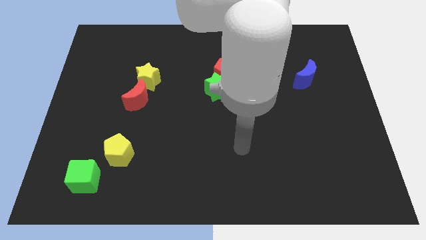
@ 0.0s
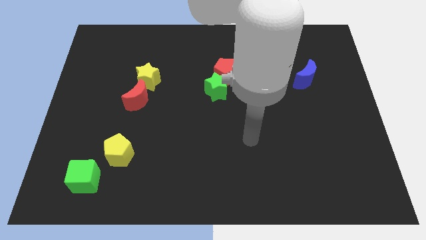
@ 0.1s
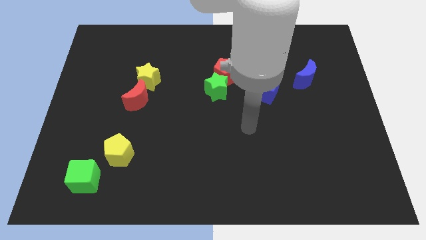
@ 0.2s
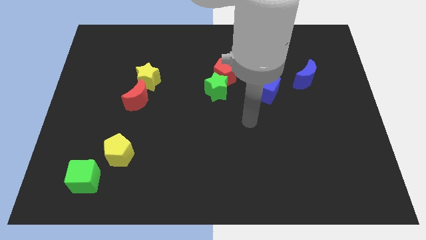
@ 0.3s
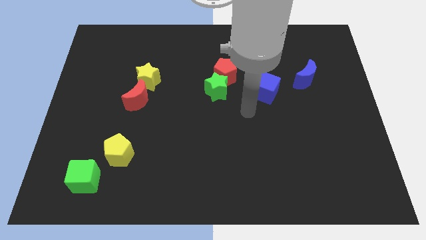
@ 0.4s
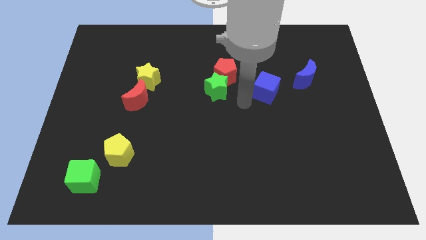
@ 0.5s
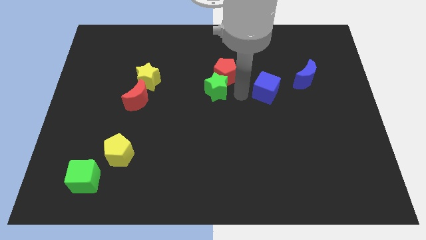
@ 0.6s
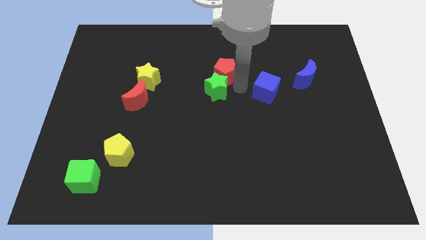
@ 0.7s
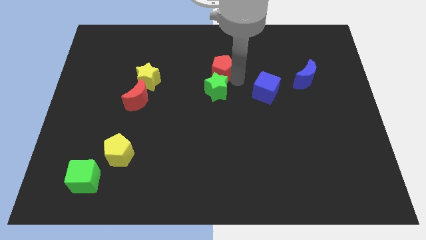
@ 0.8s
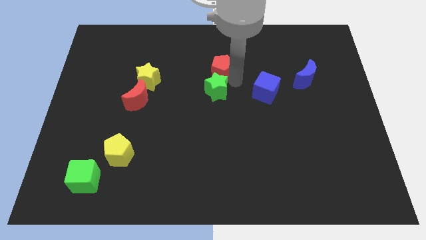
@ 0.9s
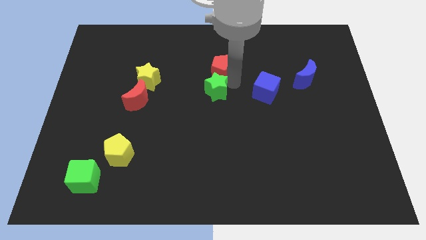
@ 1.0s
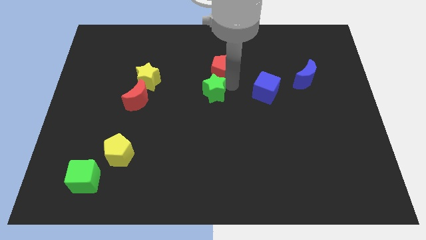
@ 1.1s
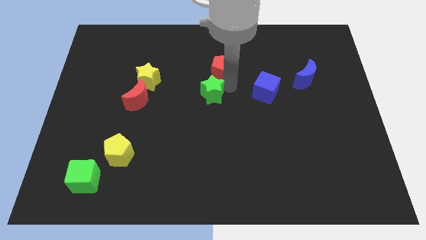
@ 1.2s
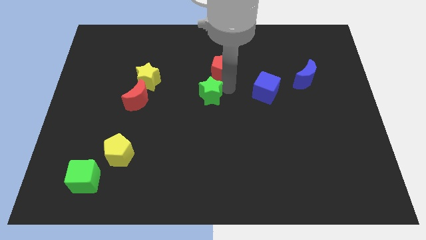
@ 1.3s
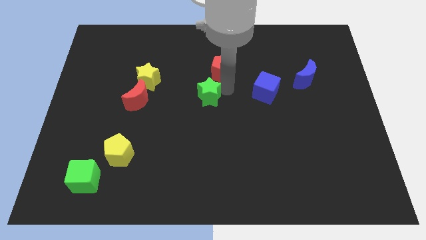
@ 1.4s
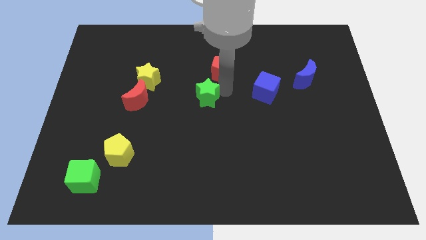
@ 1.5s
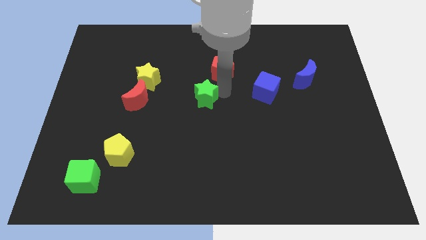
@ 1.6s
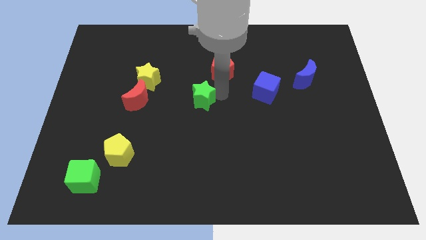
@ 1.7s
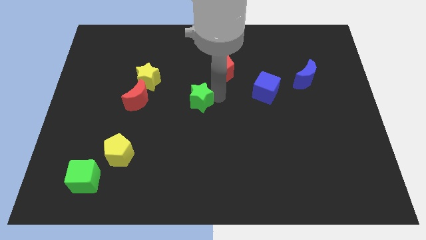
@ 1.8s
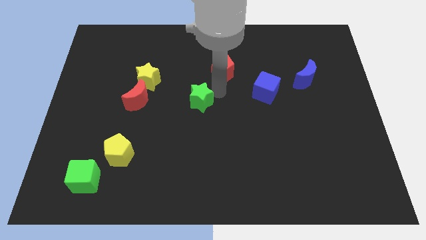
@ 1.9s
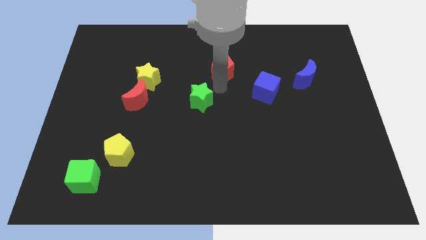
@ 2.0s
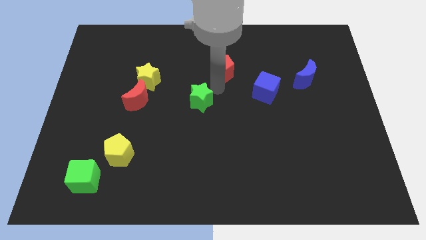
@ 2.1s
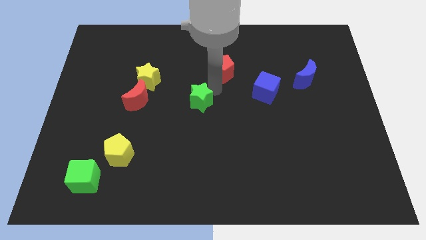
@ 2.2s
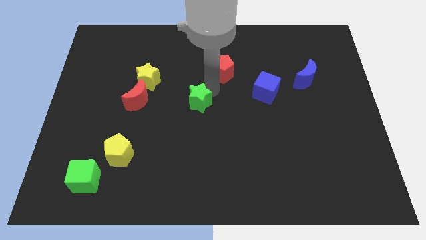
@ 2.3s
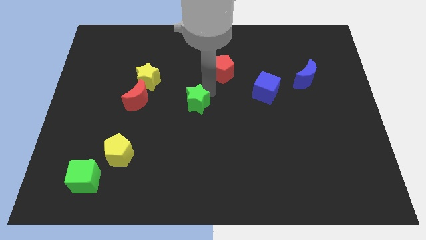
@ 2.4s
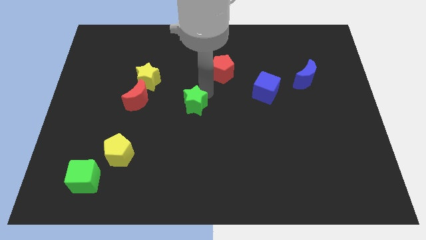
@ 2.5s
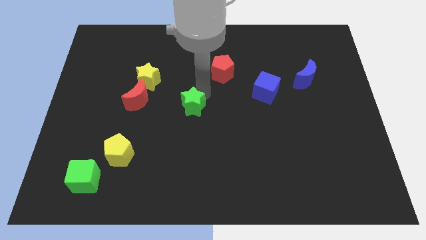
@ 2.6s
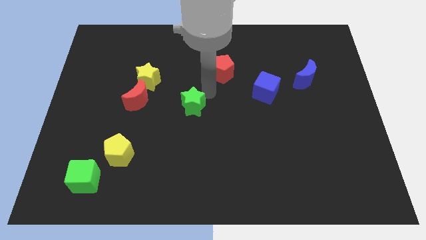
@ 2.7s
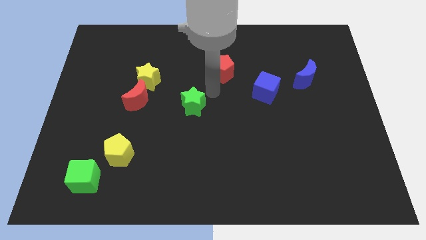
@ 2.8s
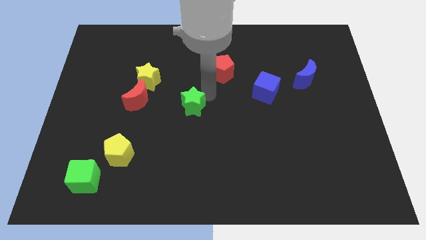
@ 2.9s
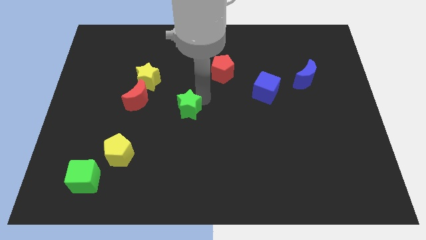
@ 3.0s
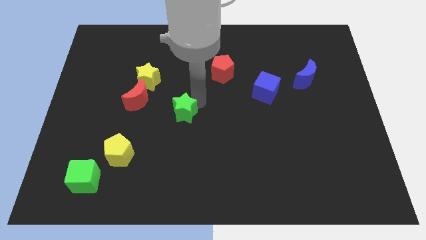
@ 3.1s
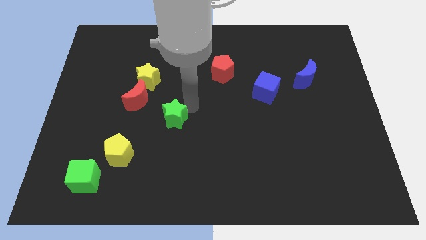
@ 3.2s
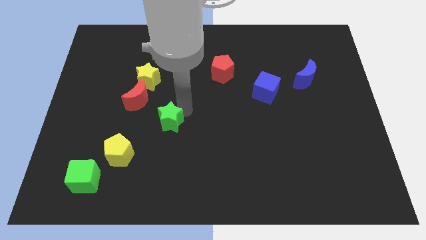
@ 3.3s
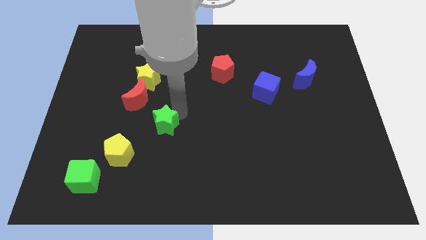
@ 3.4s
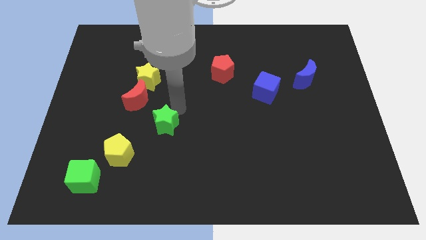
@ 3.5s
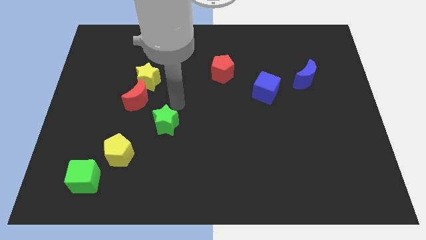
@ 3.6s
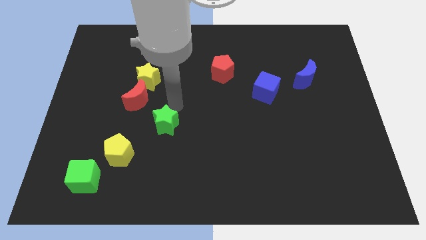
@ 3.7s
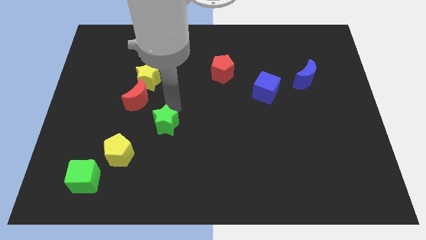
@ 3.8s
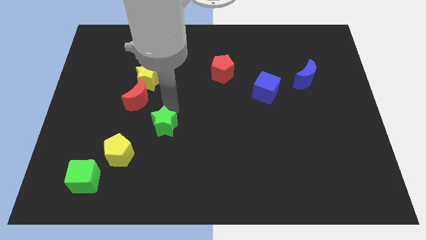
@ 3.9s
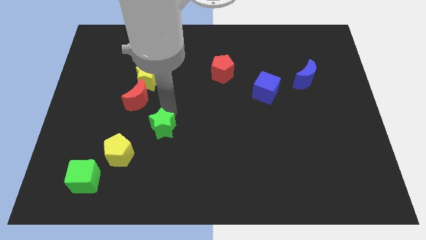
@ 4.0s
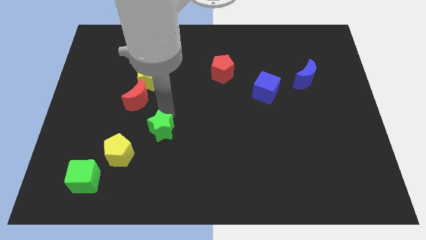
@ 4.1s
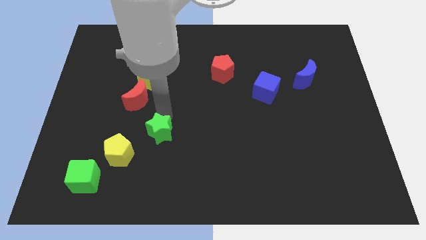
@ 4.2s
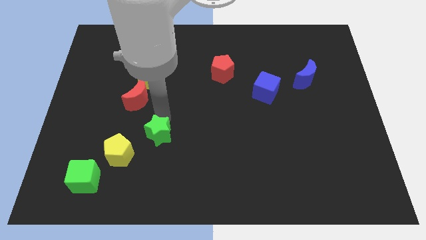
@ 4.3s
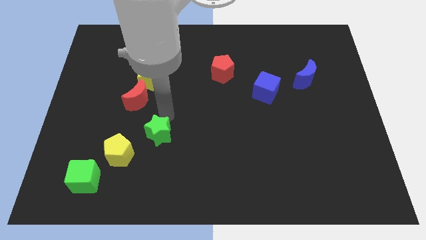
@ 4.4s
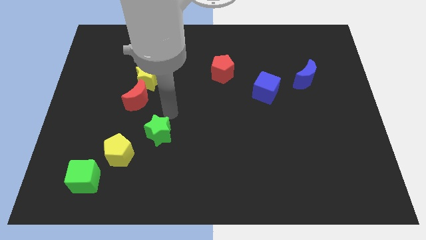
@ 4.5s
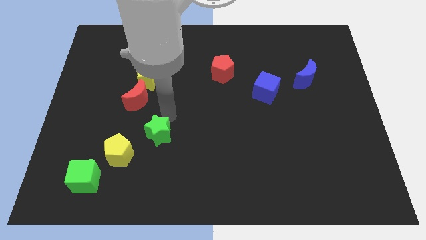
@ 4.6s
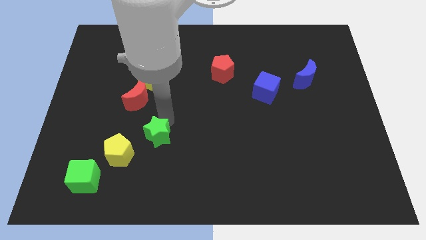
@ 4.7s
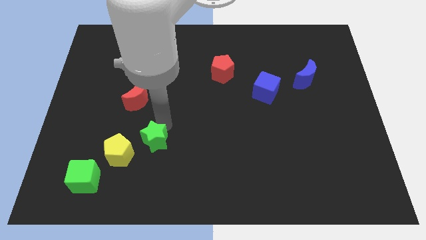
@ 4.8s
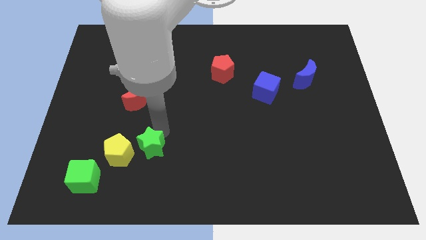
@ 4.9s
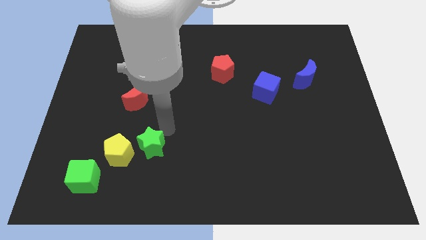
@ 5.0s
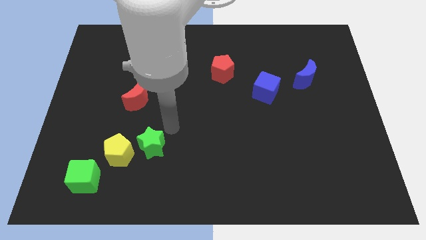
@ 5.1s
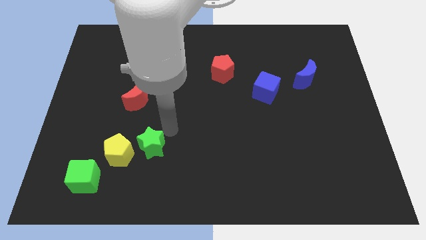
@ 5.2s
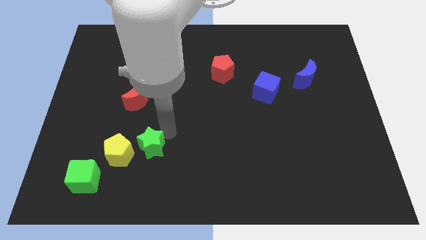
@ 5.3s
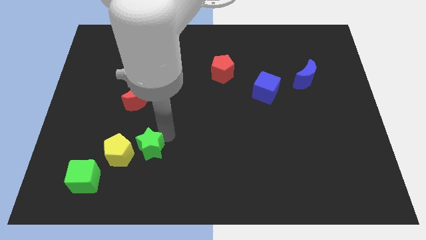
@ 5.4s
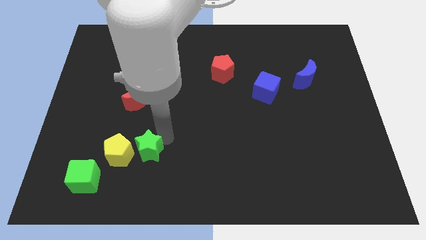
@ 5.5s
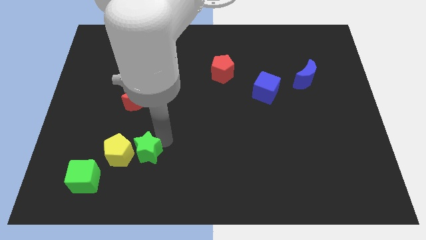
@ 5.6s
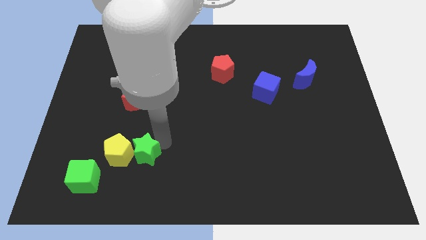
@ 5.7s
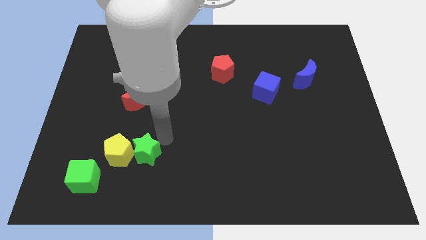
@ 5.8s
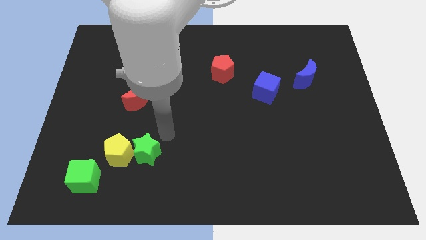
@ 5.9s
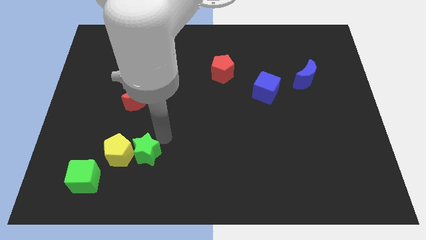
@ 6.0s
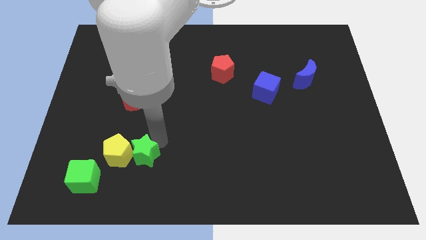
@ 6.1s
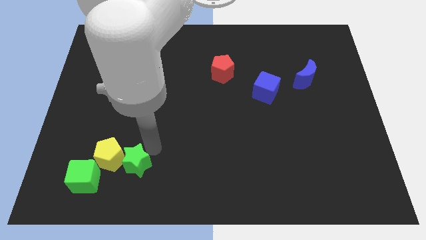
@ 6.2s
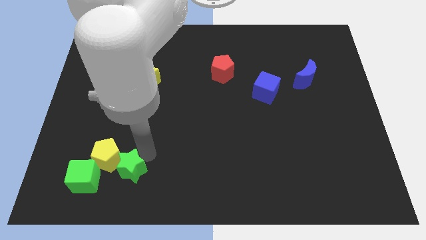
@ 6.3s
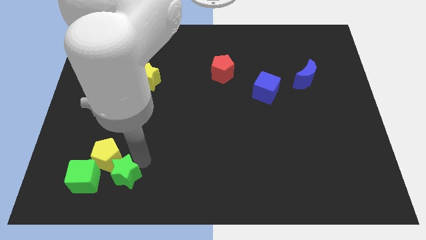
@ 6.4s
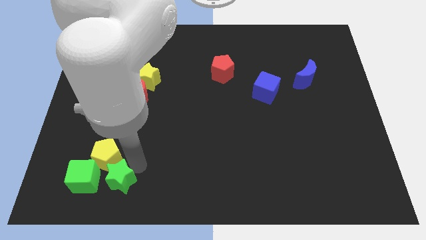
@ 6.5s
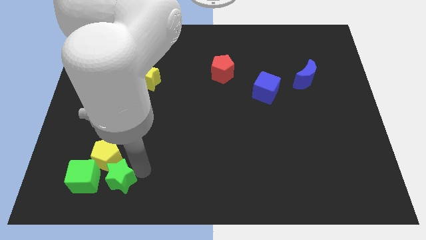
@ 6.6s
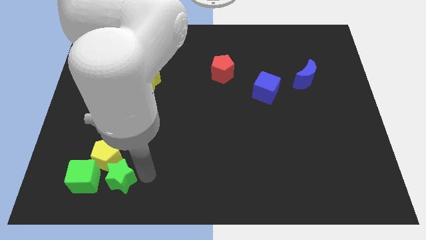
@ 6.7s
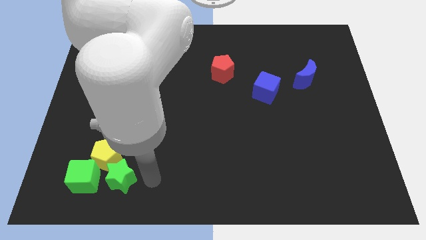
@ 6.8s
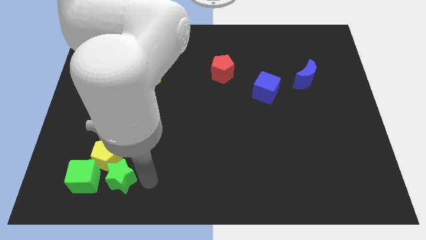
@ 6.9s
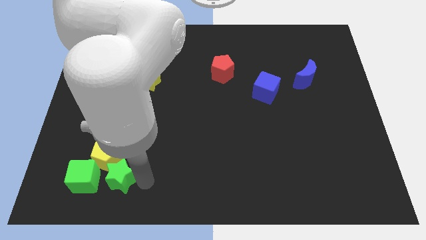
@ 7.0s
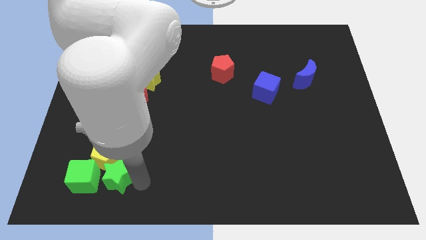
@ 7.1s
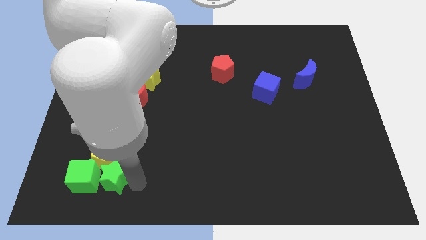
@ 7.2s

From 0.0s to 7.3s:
move the green star close to the green cube
